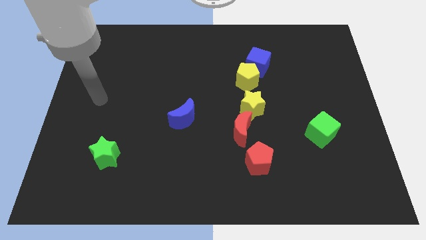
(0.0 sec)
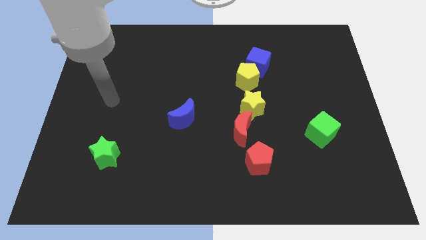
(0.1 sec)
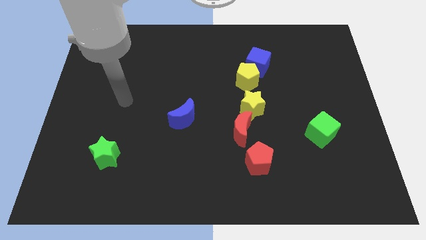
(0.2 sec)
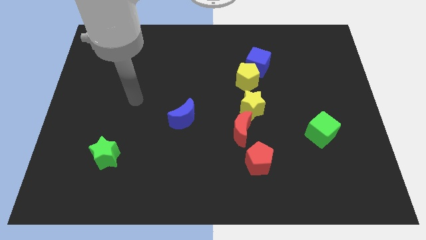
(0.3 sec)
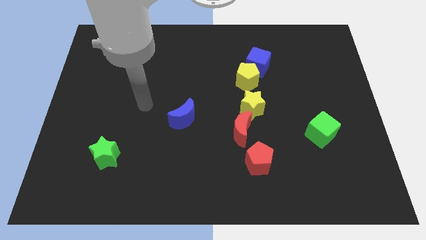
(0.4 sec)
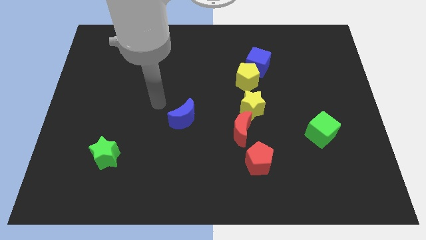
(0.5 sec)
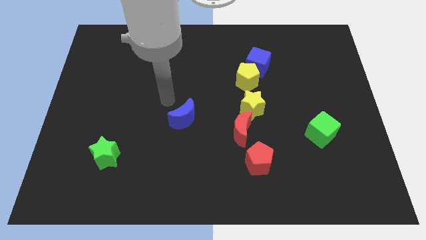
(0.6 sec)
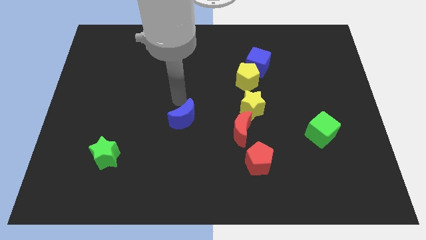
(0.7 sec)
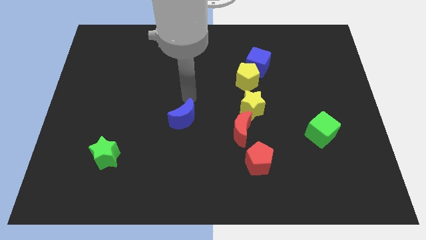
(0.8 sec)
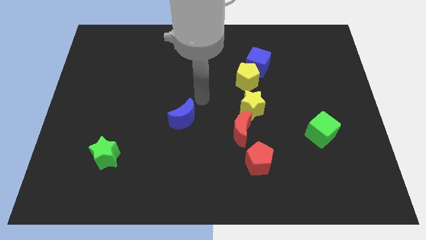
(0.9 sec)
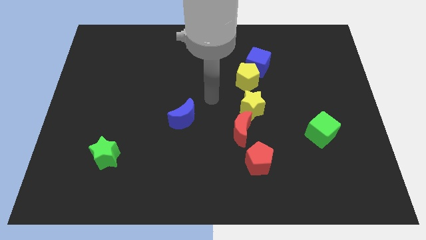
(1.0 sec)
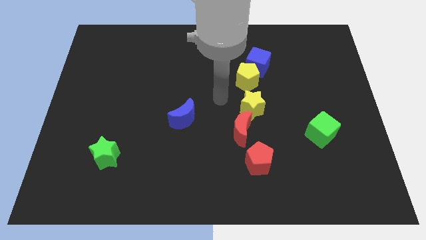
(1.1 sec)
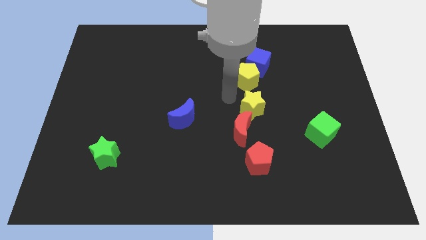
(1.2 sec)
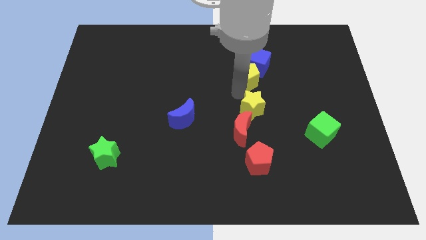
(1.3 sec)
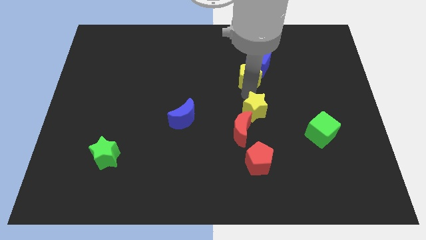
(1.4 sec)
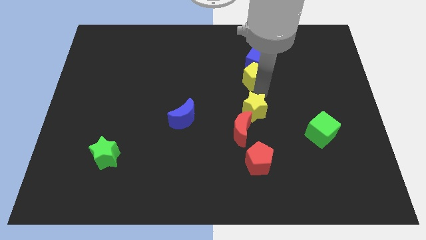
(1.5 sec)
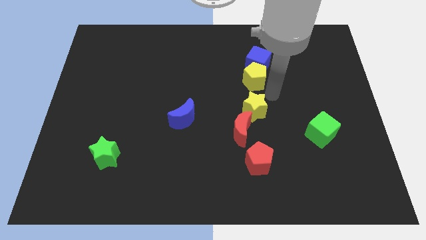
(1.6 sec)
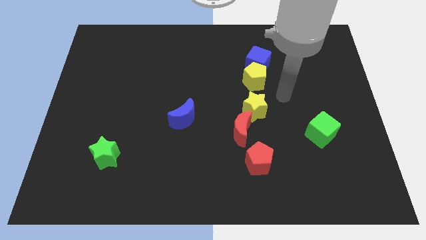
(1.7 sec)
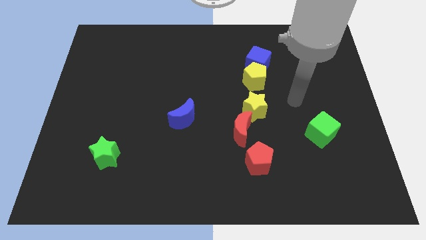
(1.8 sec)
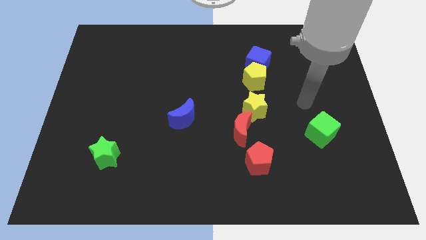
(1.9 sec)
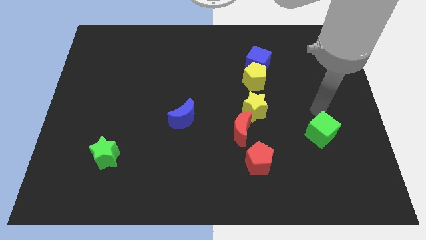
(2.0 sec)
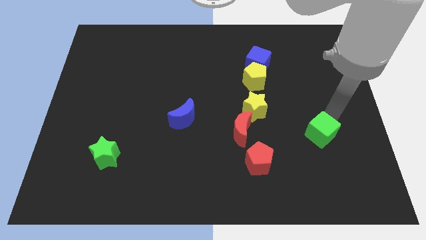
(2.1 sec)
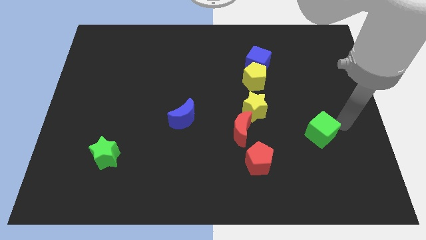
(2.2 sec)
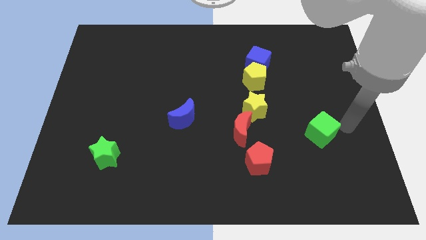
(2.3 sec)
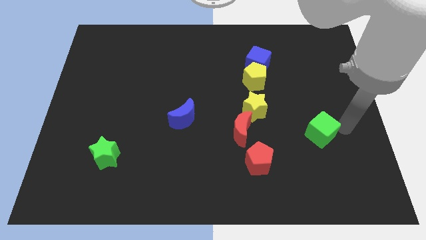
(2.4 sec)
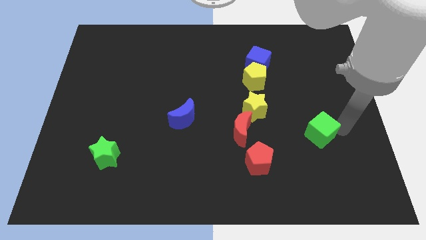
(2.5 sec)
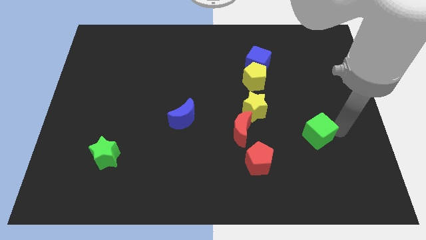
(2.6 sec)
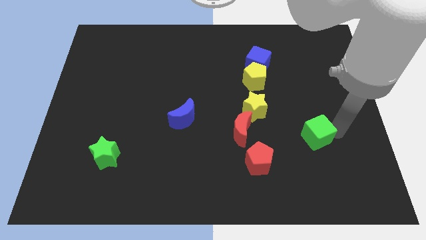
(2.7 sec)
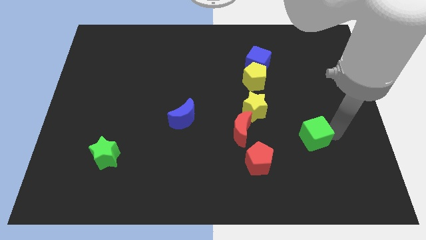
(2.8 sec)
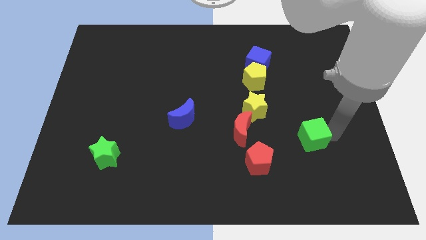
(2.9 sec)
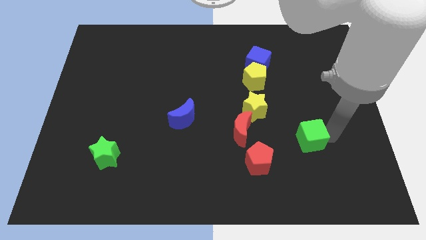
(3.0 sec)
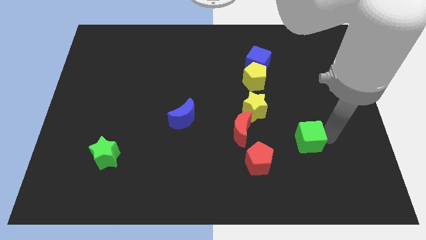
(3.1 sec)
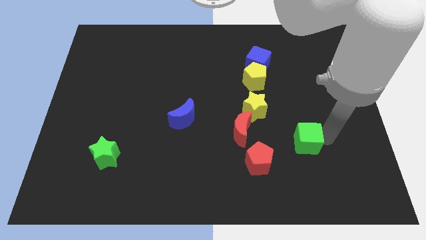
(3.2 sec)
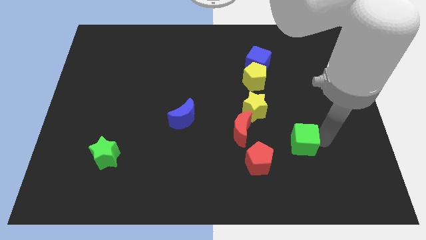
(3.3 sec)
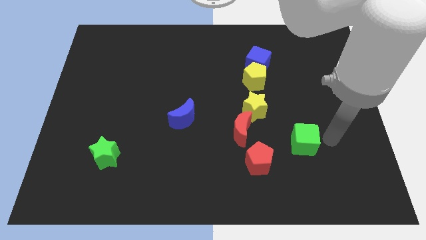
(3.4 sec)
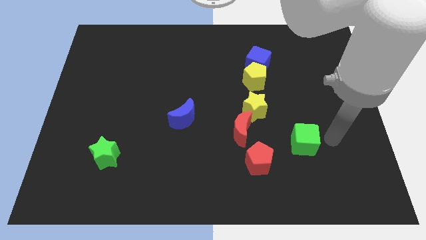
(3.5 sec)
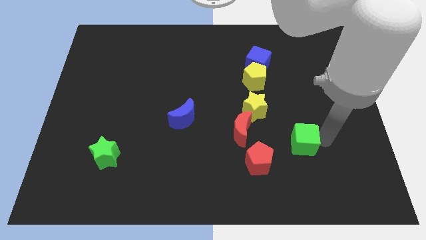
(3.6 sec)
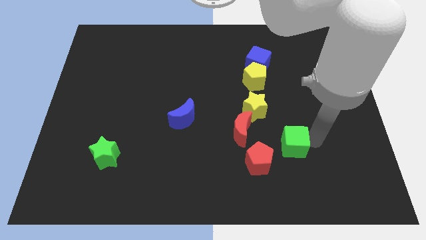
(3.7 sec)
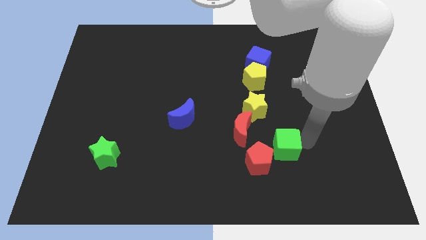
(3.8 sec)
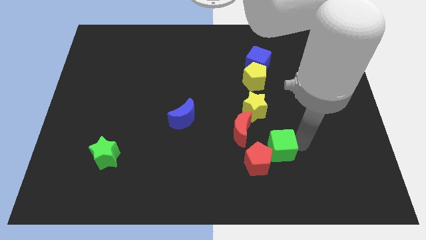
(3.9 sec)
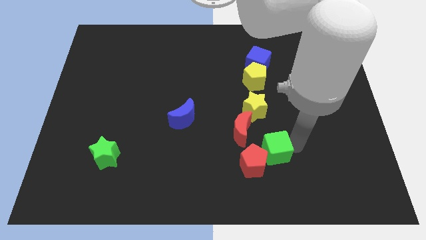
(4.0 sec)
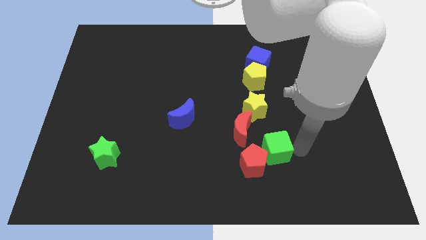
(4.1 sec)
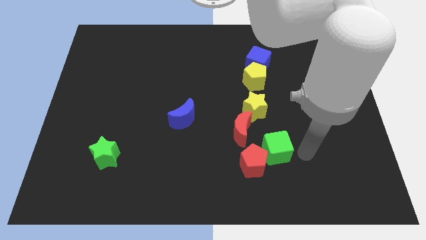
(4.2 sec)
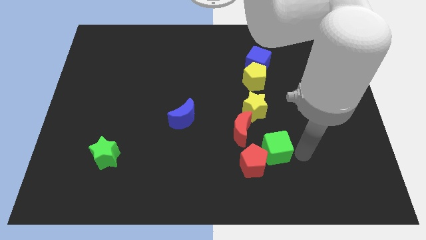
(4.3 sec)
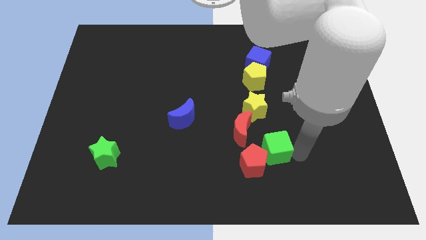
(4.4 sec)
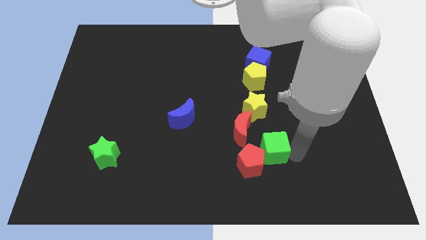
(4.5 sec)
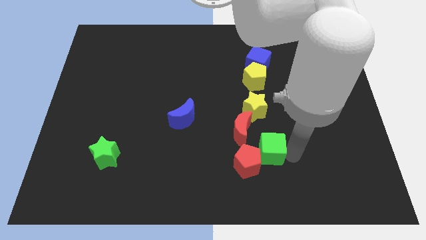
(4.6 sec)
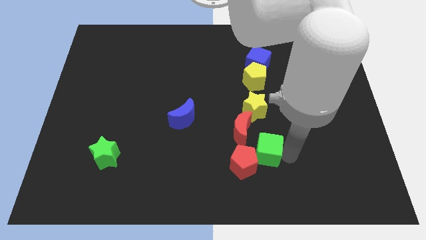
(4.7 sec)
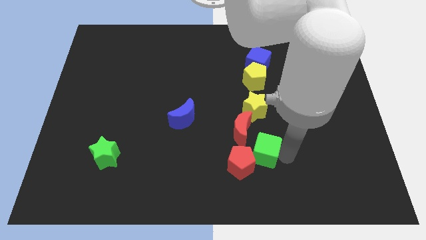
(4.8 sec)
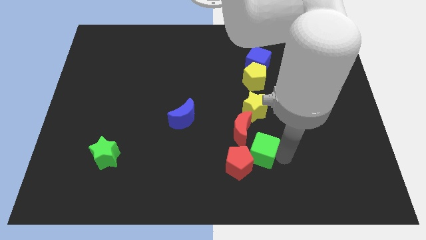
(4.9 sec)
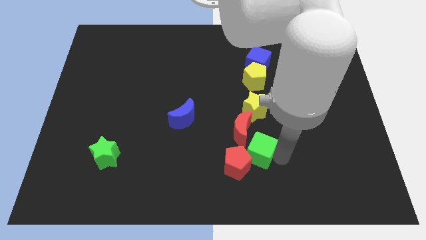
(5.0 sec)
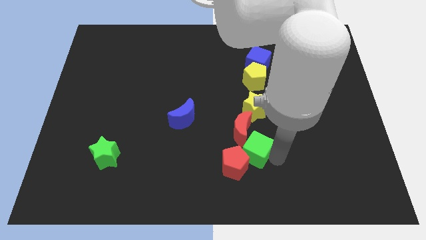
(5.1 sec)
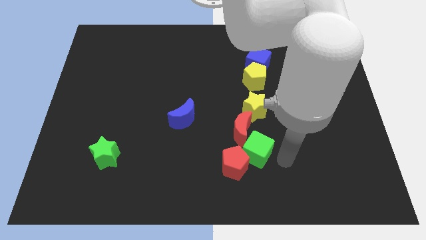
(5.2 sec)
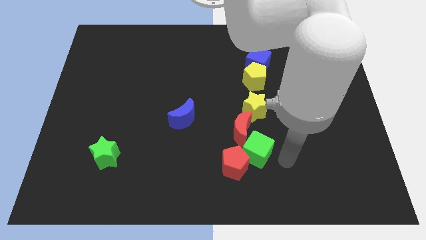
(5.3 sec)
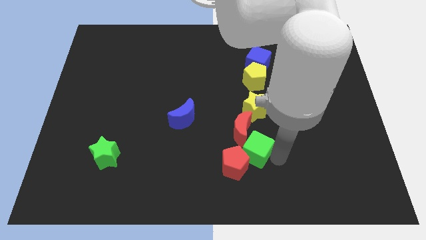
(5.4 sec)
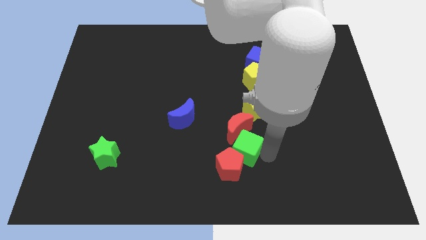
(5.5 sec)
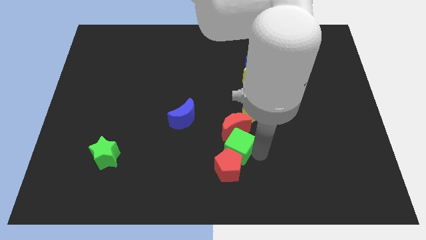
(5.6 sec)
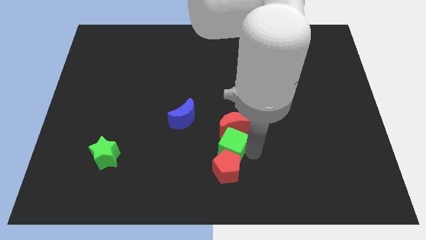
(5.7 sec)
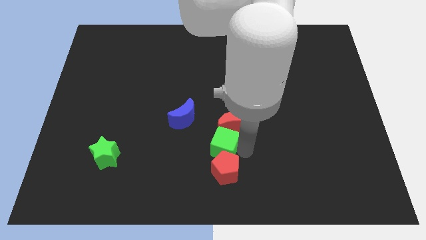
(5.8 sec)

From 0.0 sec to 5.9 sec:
slide the green cube to the bottom right side of the blue moon

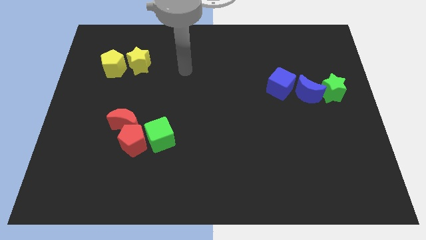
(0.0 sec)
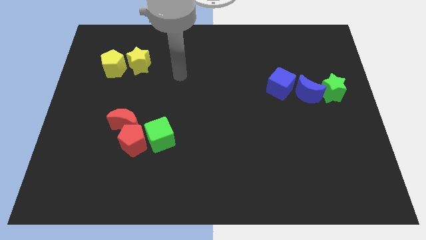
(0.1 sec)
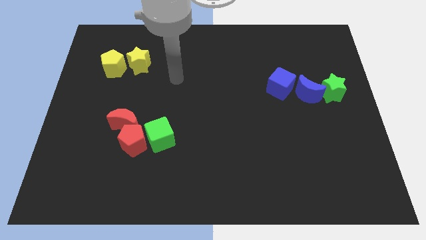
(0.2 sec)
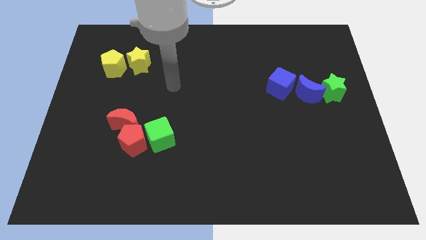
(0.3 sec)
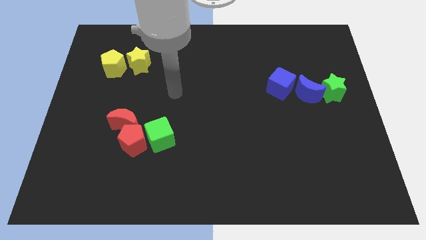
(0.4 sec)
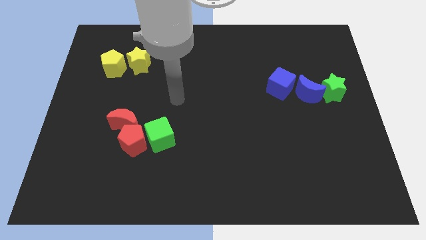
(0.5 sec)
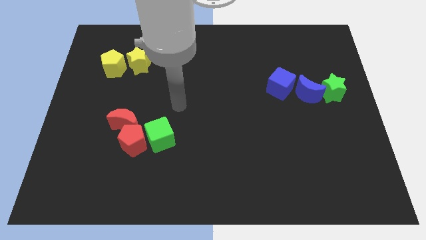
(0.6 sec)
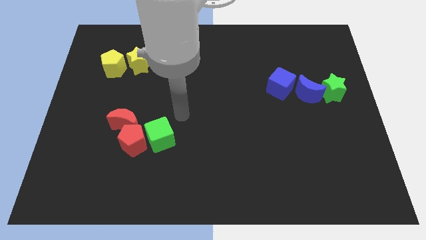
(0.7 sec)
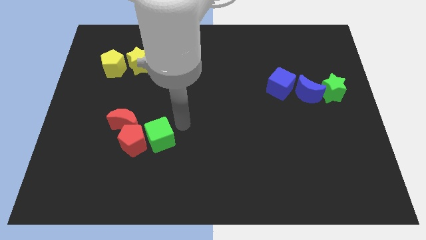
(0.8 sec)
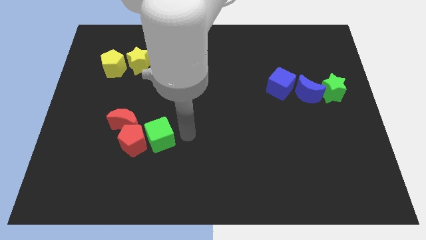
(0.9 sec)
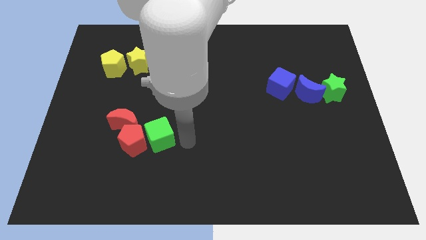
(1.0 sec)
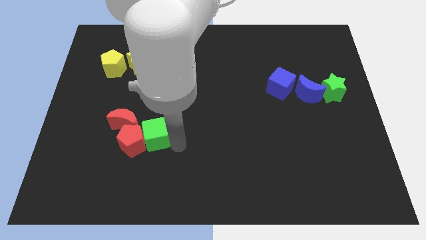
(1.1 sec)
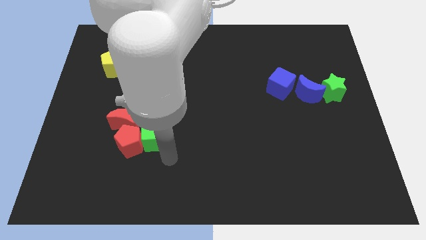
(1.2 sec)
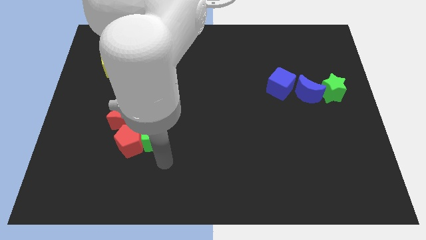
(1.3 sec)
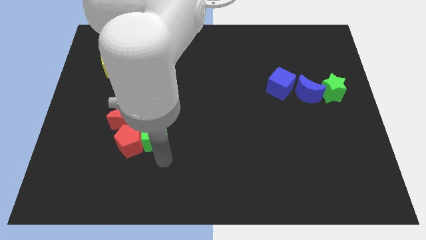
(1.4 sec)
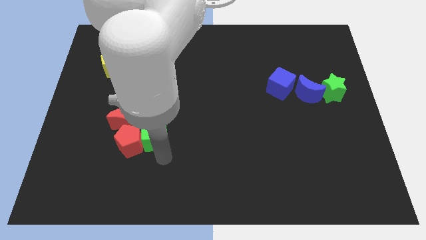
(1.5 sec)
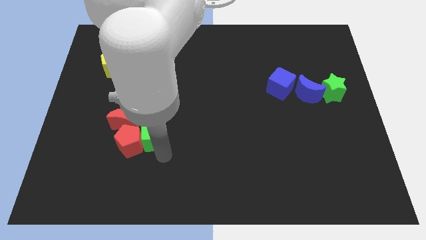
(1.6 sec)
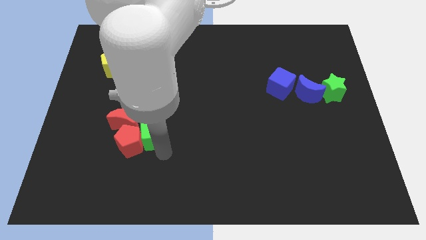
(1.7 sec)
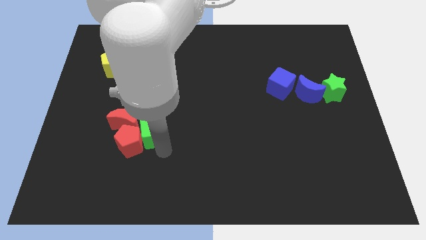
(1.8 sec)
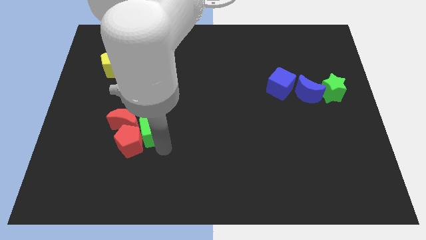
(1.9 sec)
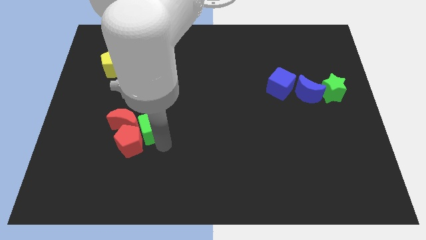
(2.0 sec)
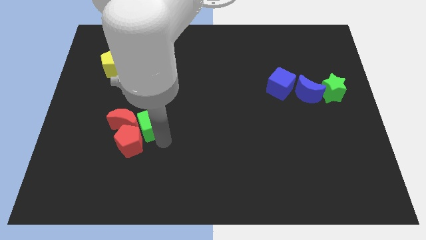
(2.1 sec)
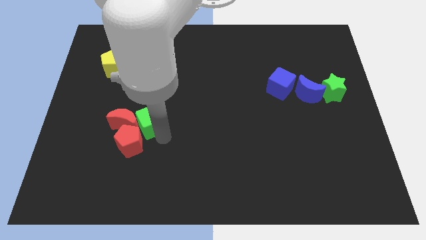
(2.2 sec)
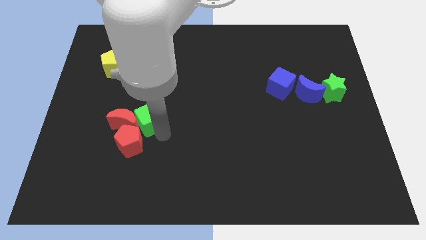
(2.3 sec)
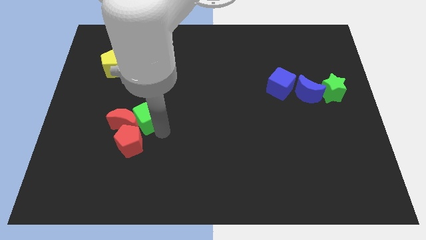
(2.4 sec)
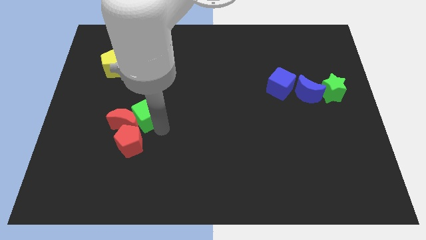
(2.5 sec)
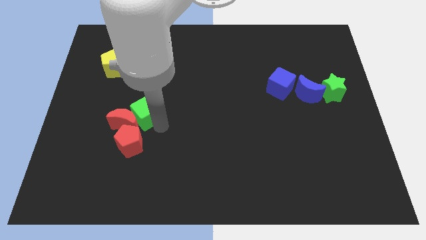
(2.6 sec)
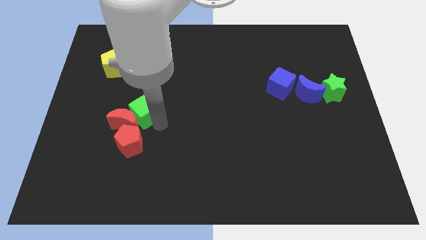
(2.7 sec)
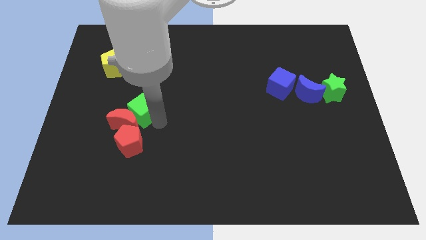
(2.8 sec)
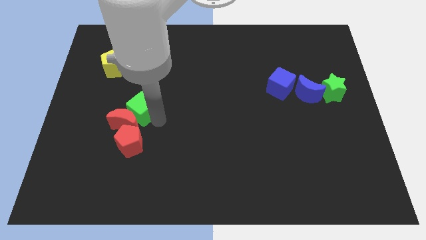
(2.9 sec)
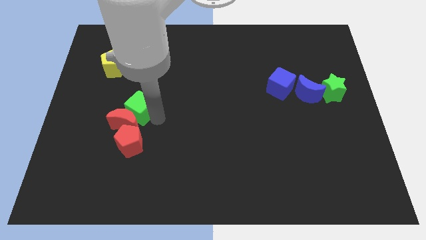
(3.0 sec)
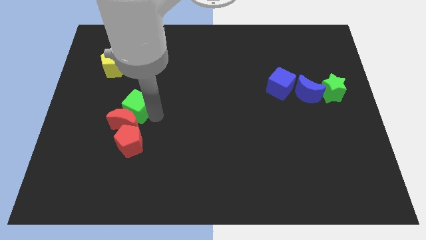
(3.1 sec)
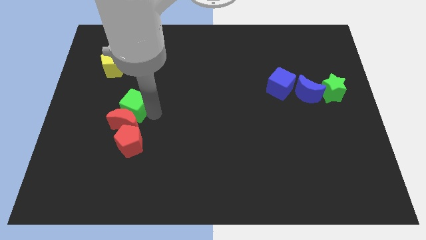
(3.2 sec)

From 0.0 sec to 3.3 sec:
slide the green cube to the top left side of the red moon
